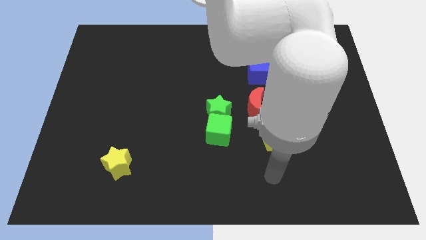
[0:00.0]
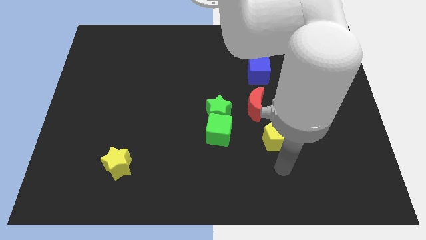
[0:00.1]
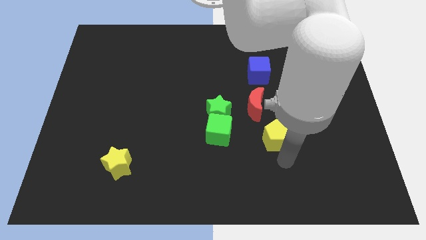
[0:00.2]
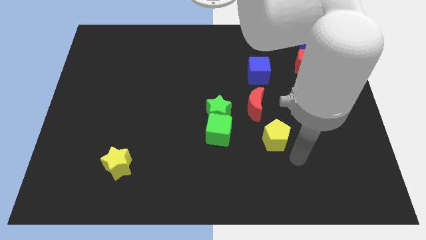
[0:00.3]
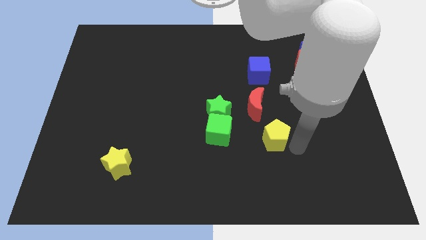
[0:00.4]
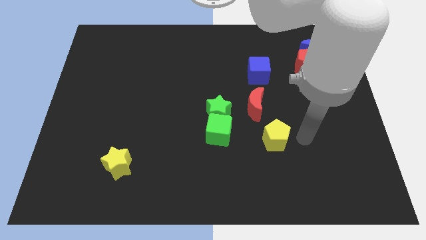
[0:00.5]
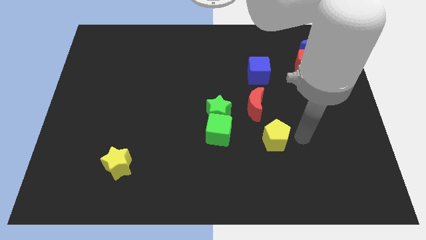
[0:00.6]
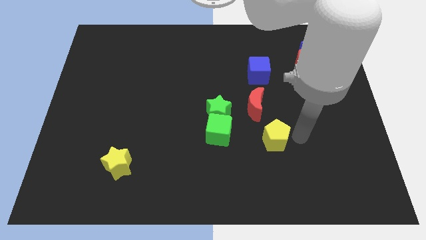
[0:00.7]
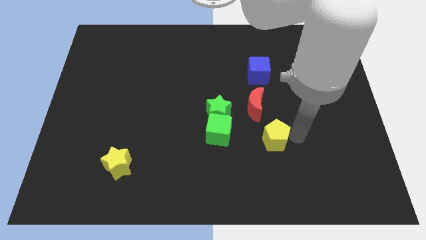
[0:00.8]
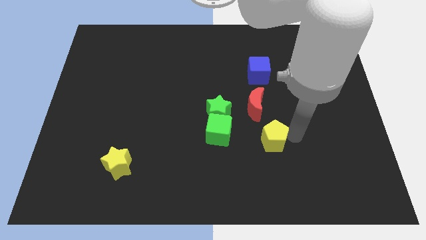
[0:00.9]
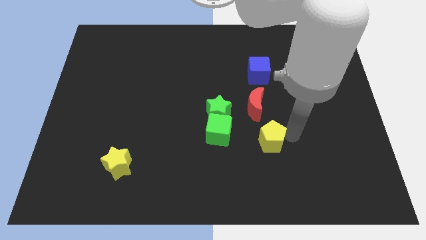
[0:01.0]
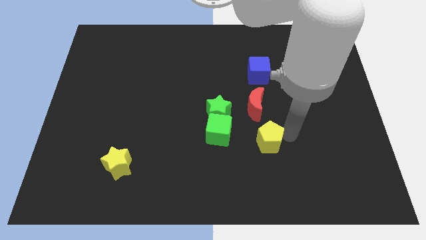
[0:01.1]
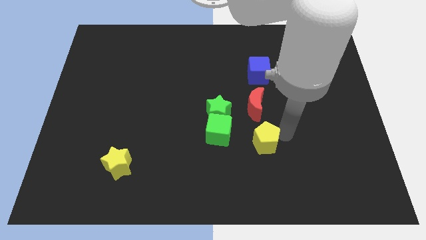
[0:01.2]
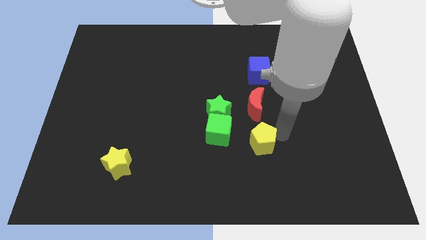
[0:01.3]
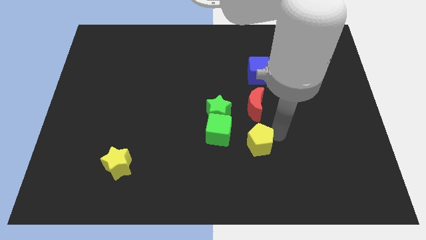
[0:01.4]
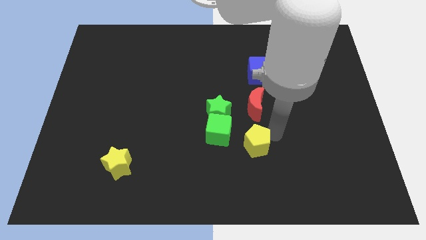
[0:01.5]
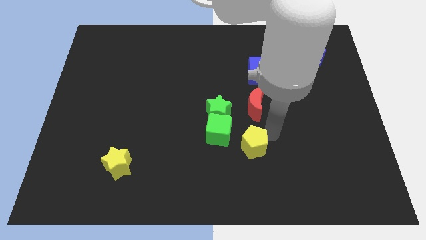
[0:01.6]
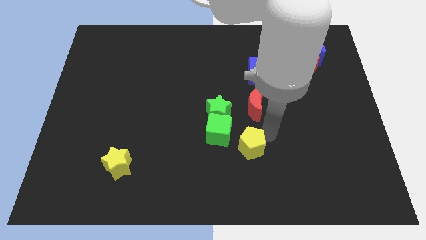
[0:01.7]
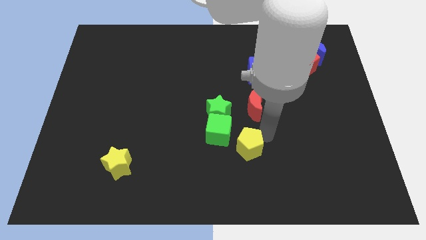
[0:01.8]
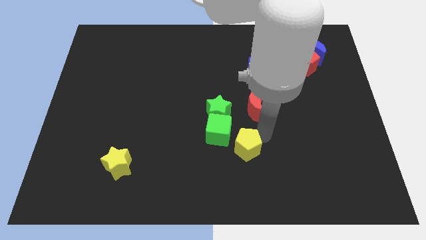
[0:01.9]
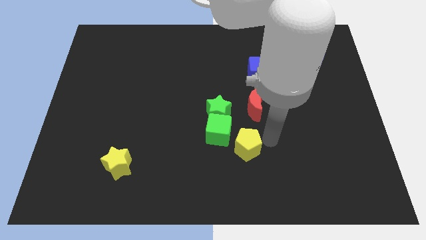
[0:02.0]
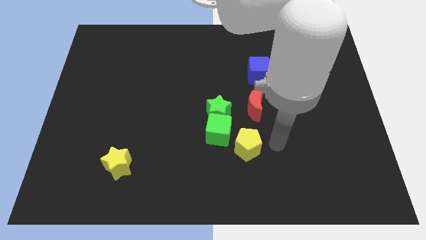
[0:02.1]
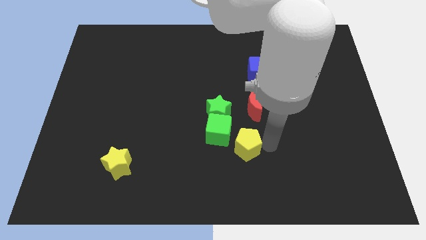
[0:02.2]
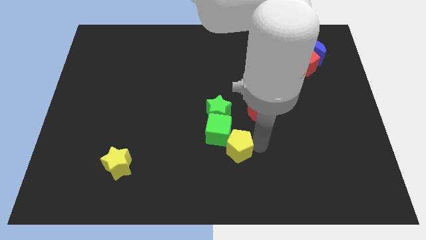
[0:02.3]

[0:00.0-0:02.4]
push the yellow pentagon a bit to the left

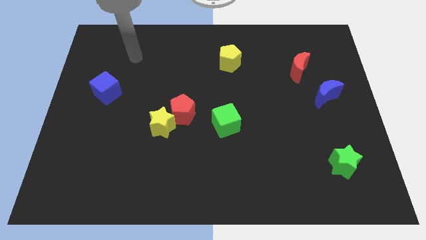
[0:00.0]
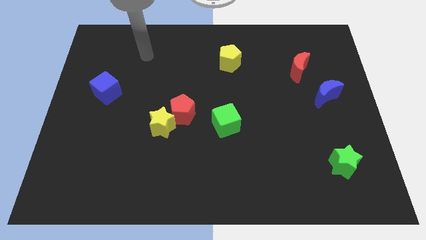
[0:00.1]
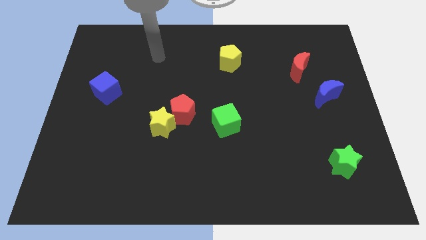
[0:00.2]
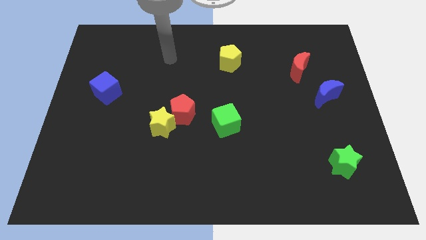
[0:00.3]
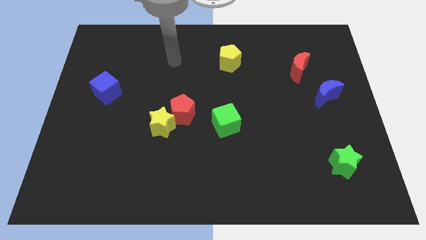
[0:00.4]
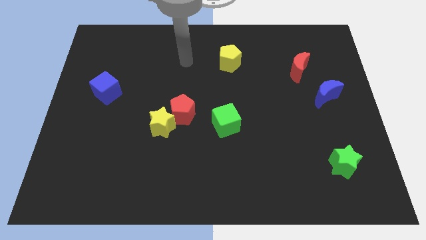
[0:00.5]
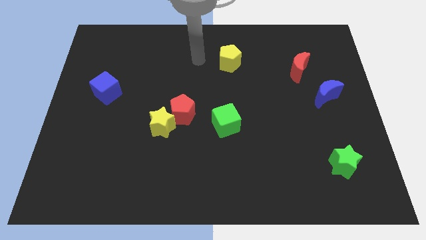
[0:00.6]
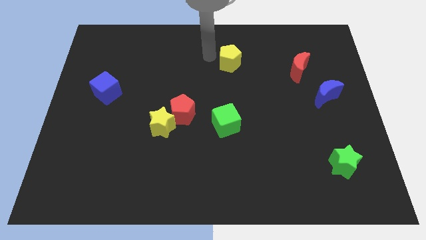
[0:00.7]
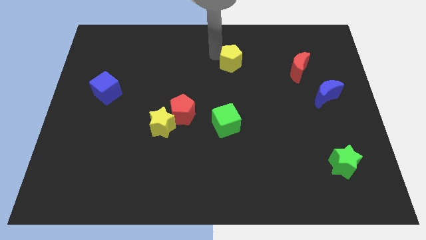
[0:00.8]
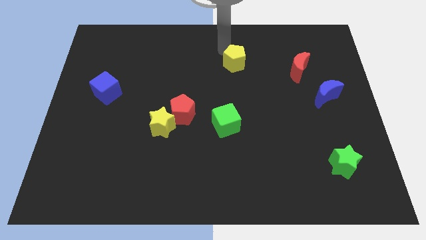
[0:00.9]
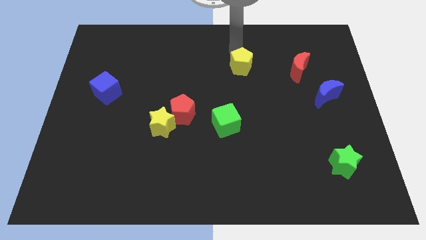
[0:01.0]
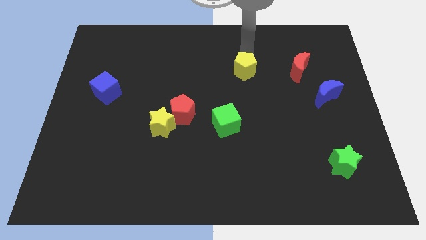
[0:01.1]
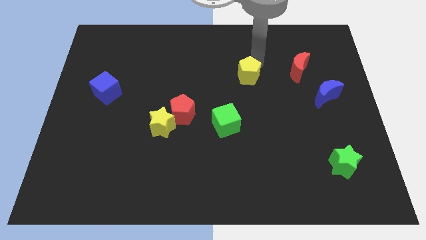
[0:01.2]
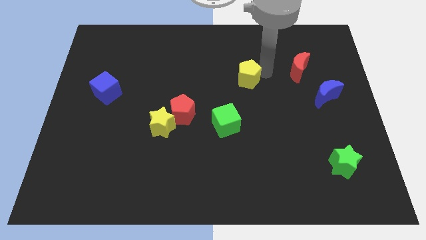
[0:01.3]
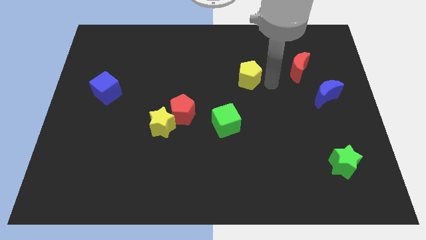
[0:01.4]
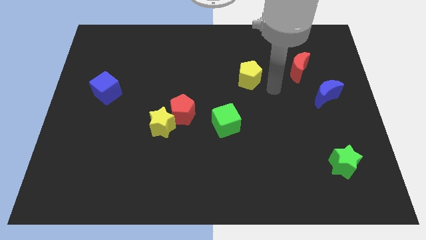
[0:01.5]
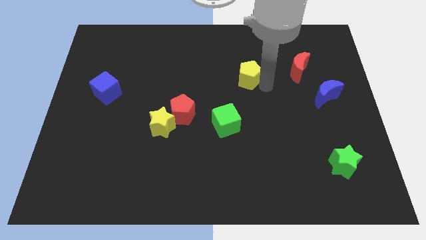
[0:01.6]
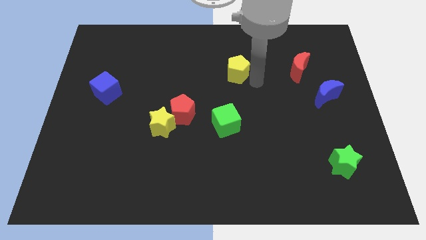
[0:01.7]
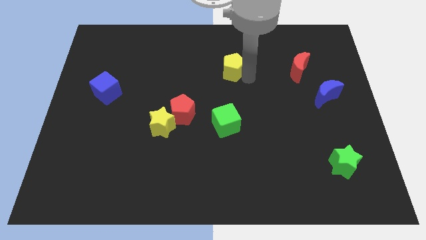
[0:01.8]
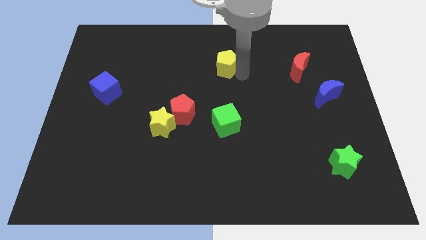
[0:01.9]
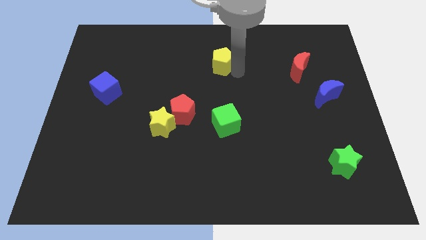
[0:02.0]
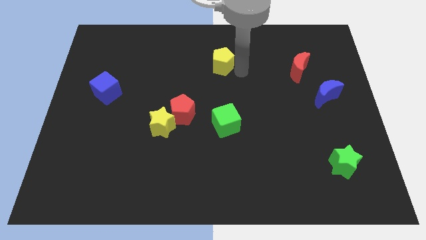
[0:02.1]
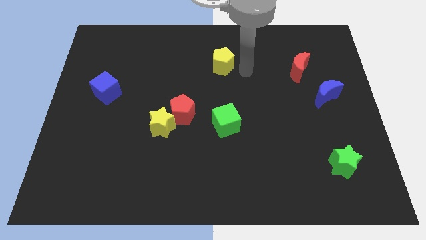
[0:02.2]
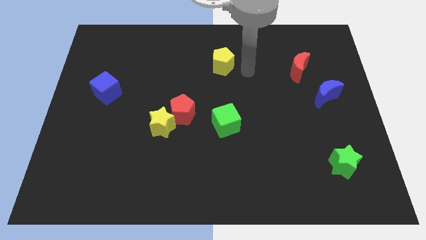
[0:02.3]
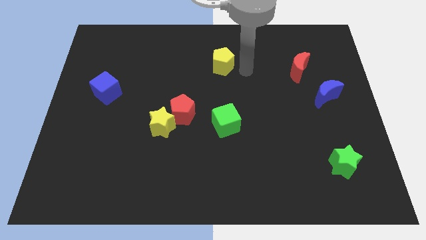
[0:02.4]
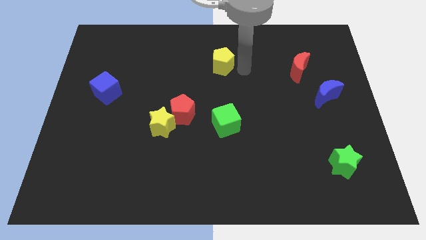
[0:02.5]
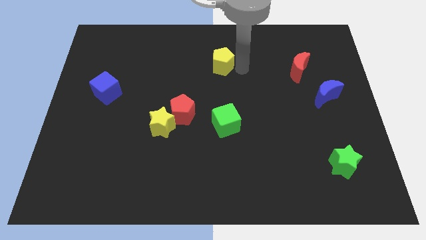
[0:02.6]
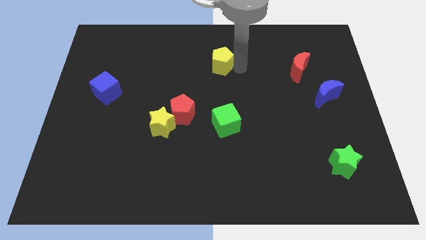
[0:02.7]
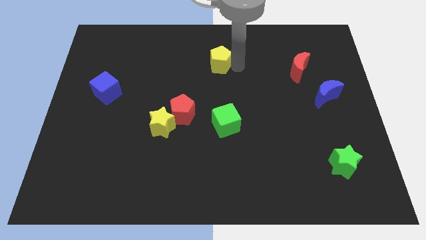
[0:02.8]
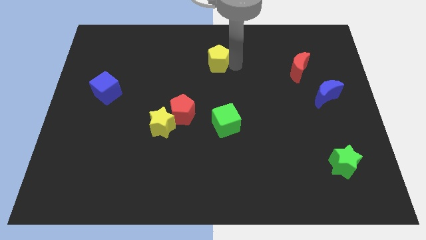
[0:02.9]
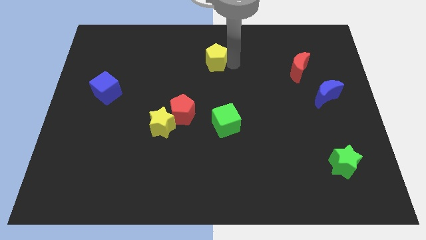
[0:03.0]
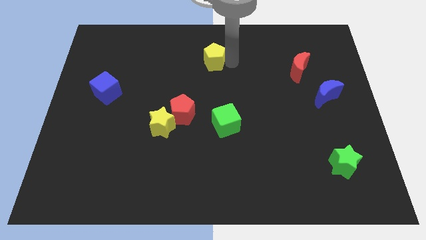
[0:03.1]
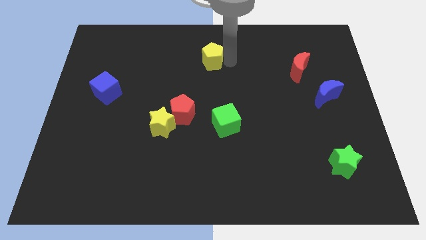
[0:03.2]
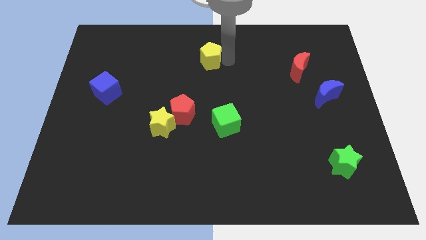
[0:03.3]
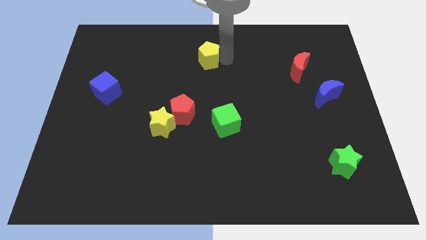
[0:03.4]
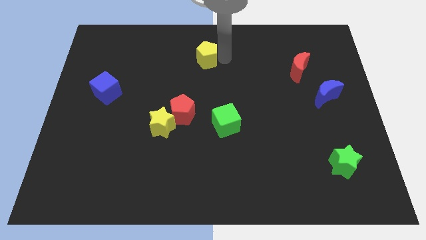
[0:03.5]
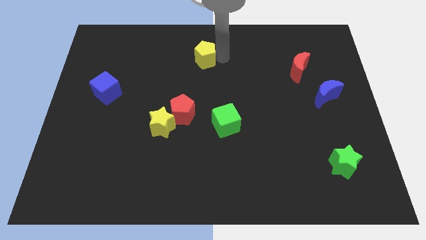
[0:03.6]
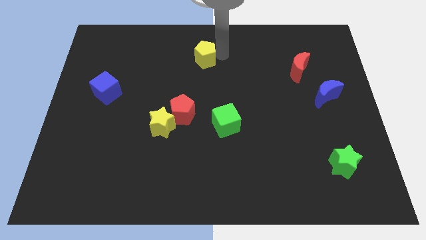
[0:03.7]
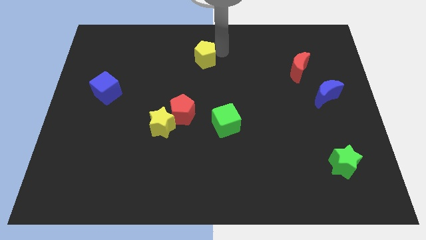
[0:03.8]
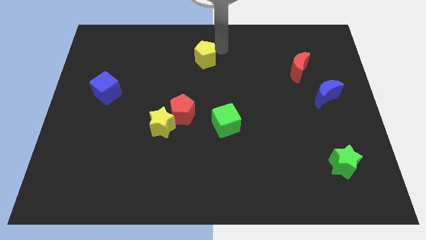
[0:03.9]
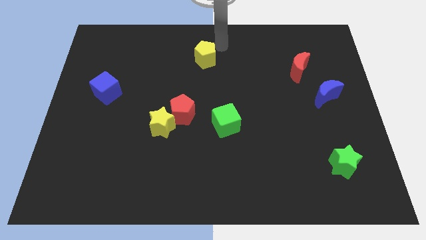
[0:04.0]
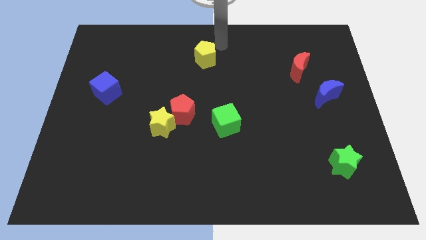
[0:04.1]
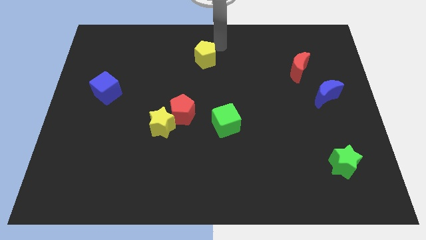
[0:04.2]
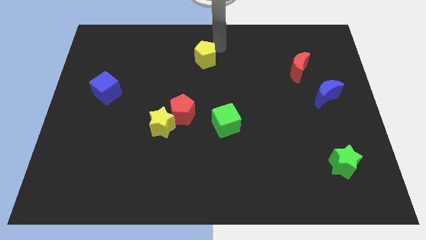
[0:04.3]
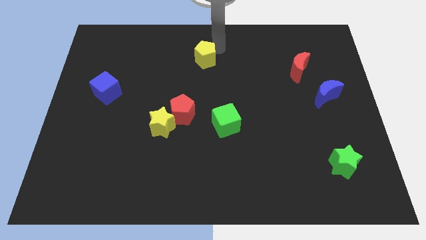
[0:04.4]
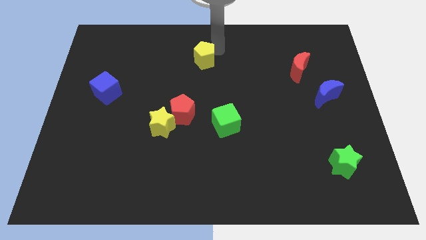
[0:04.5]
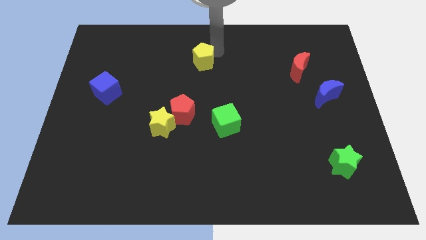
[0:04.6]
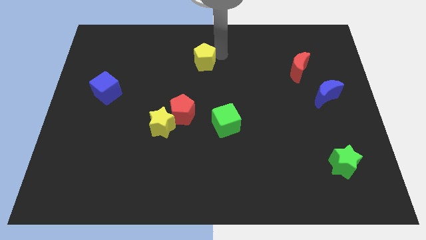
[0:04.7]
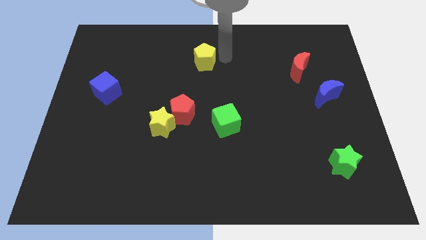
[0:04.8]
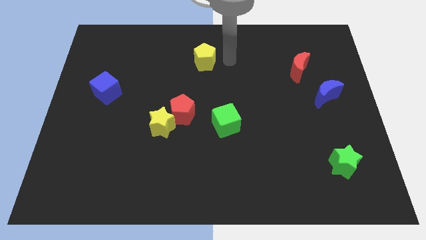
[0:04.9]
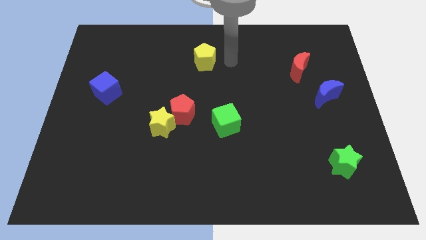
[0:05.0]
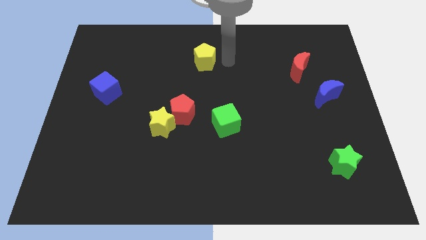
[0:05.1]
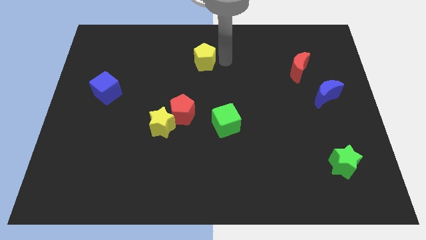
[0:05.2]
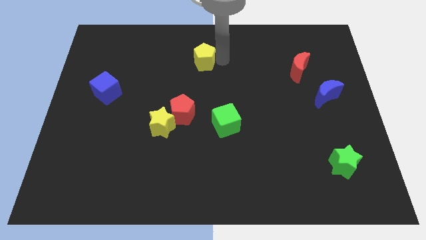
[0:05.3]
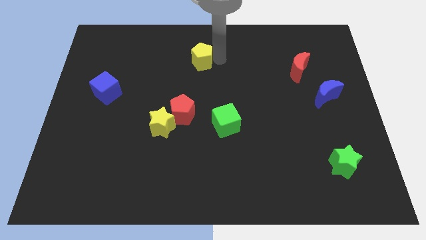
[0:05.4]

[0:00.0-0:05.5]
slightly move the yellow pentagon left
